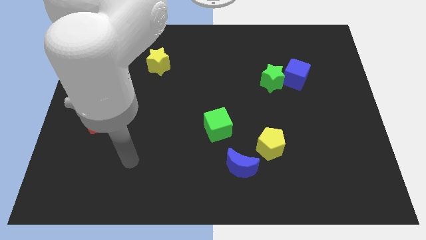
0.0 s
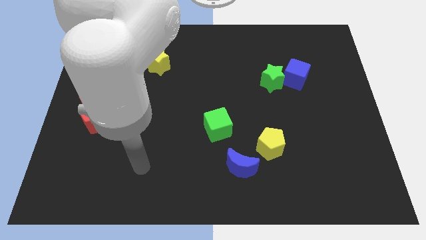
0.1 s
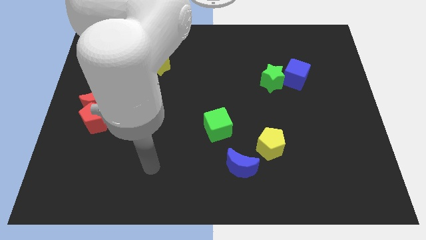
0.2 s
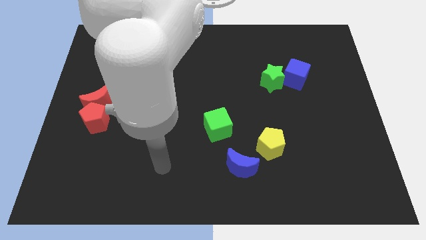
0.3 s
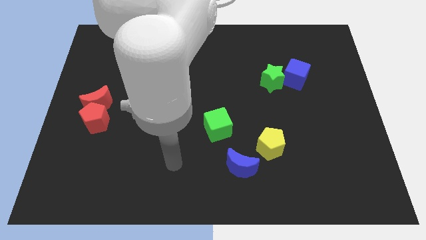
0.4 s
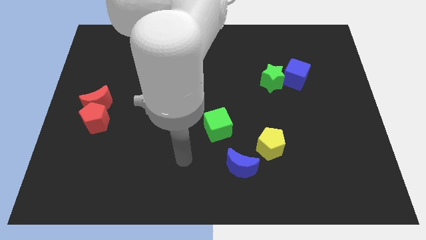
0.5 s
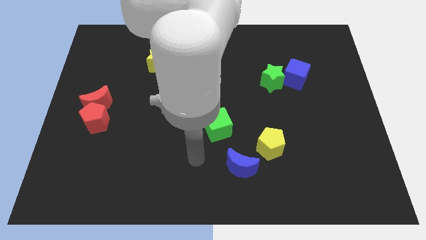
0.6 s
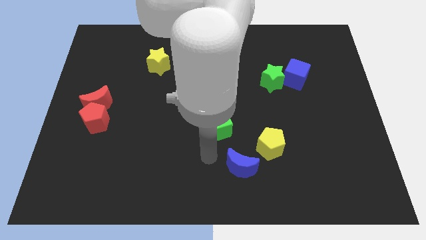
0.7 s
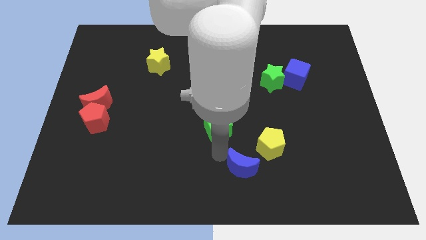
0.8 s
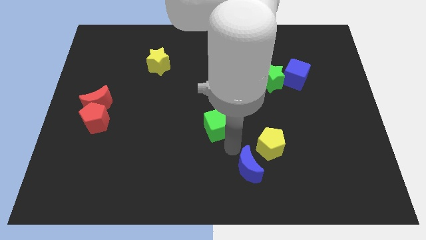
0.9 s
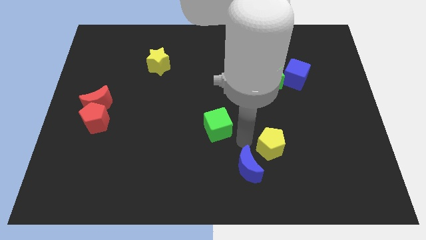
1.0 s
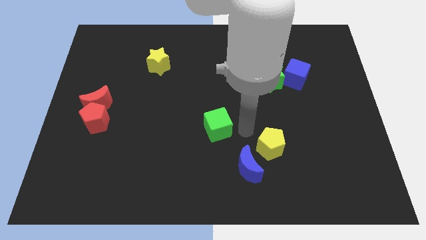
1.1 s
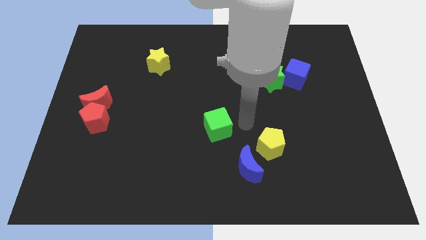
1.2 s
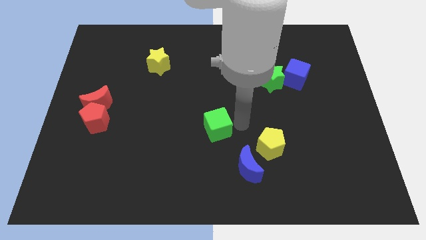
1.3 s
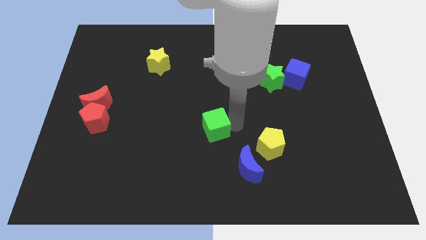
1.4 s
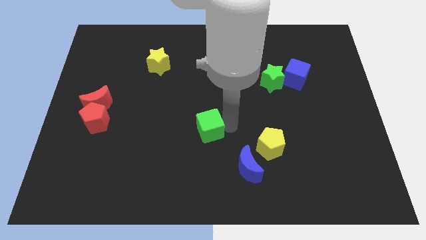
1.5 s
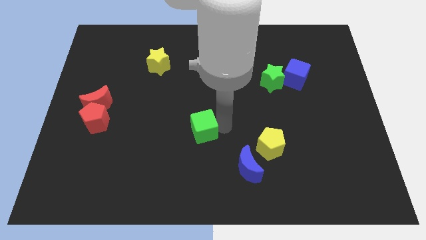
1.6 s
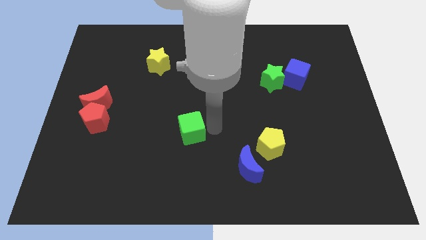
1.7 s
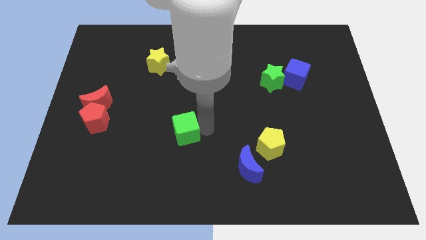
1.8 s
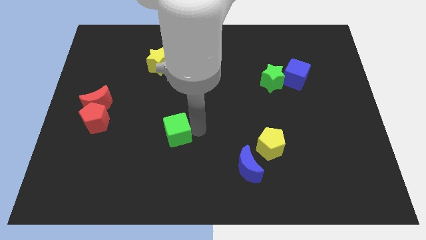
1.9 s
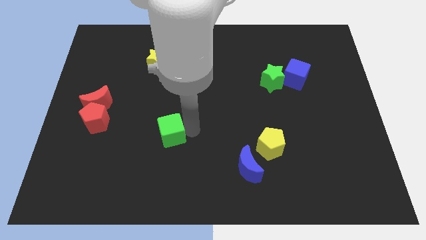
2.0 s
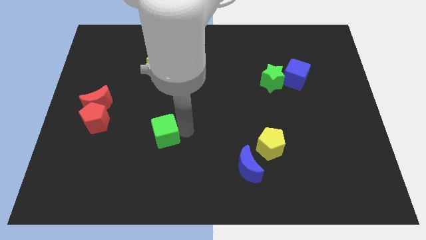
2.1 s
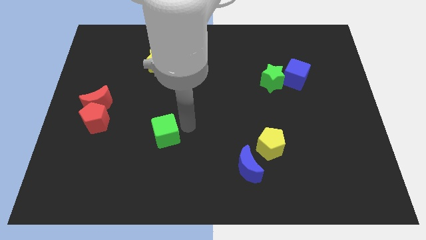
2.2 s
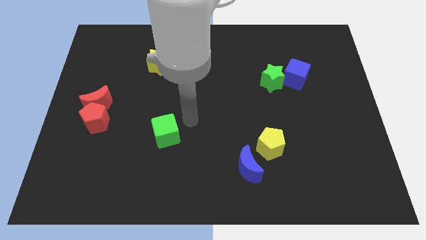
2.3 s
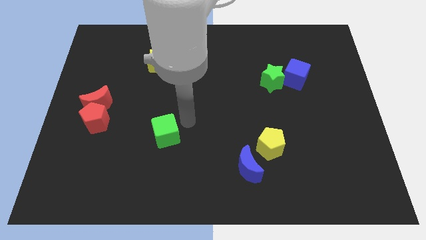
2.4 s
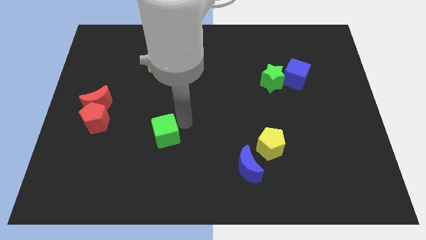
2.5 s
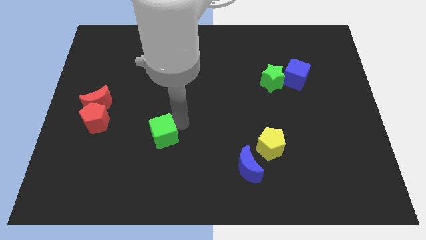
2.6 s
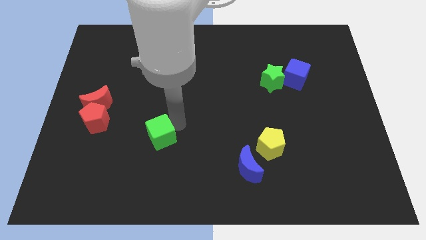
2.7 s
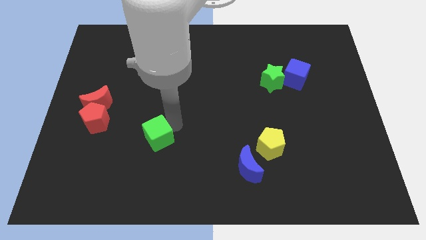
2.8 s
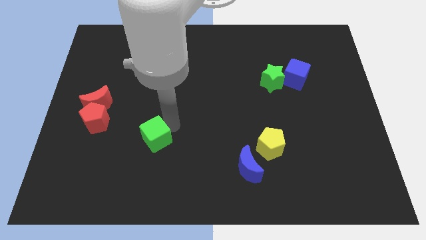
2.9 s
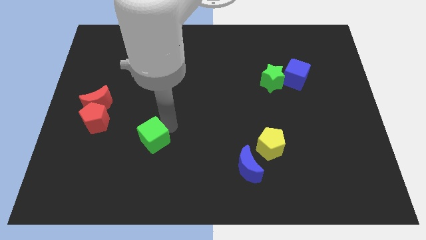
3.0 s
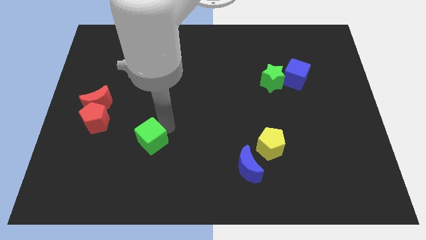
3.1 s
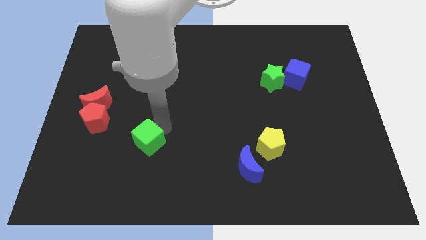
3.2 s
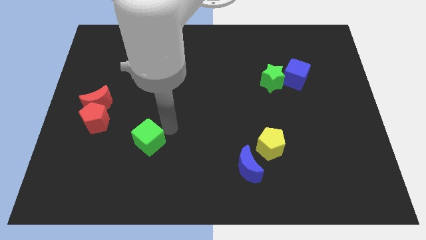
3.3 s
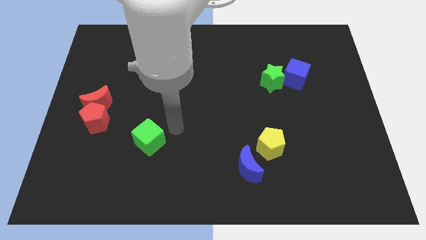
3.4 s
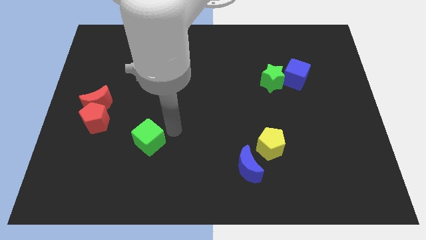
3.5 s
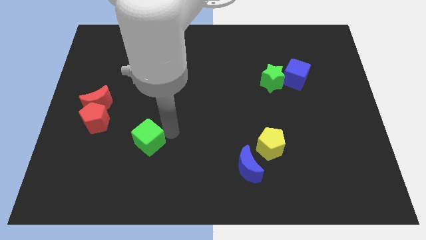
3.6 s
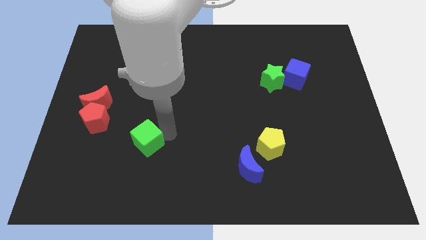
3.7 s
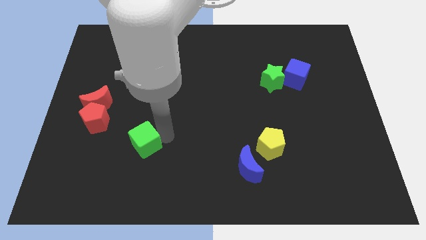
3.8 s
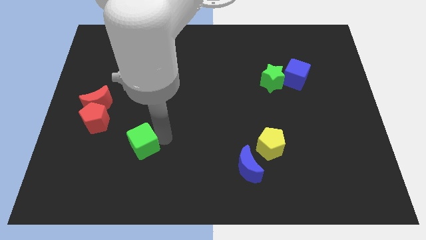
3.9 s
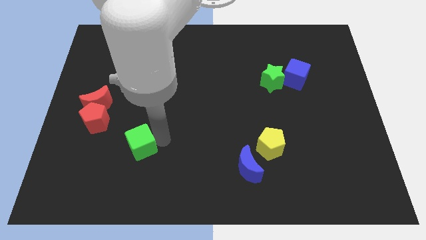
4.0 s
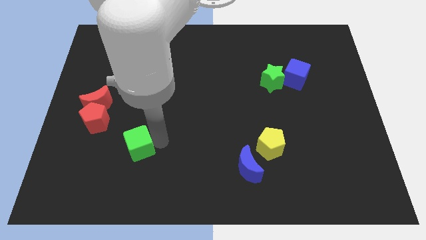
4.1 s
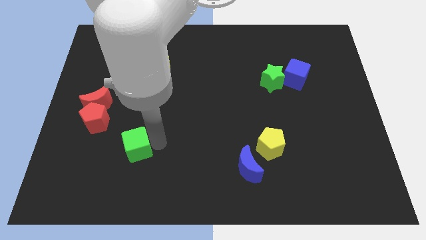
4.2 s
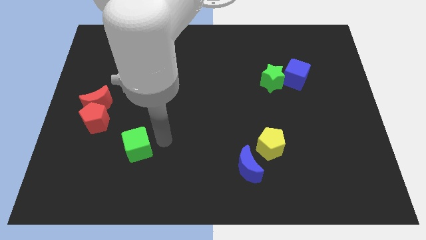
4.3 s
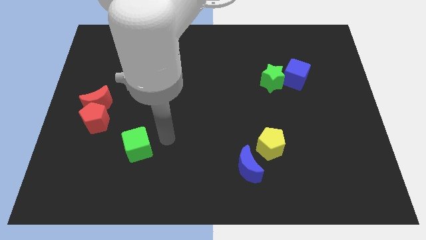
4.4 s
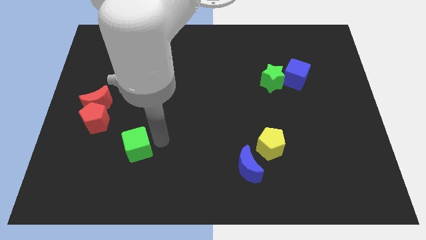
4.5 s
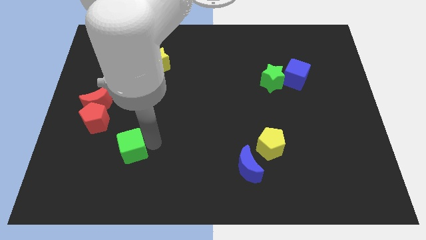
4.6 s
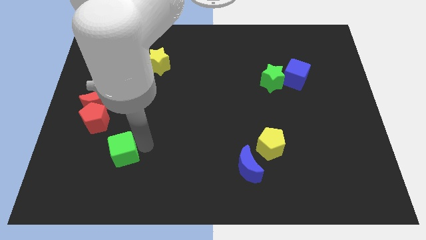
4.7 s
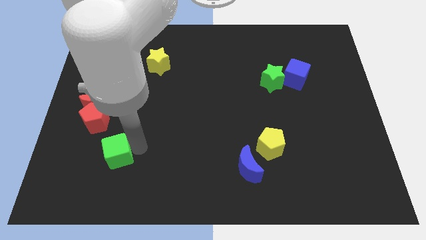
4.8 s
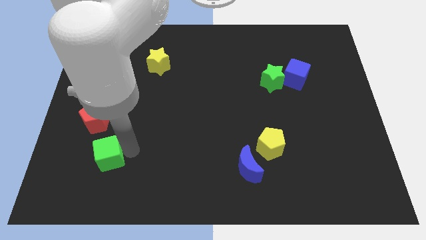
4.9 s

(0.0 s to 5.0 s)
push the green cube to the bottom of the red pentagon

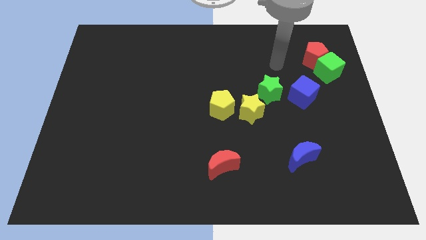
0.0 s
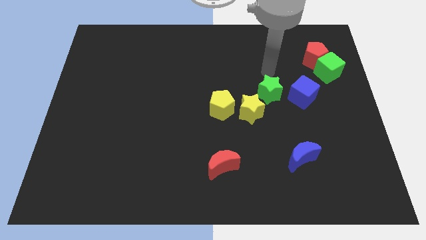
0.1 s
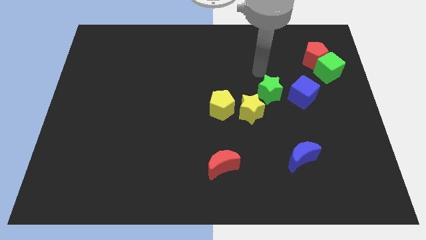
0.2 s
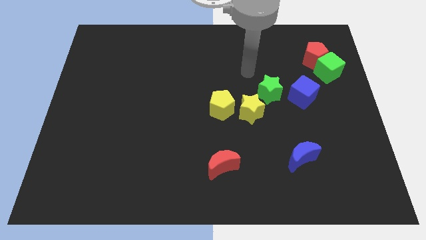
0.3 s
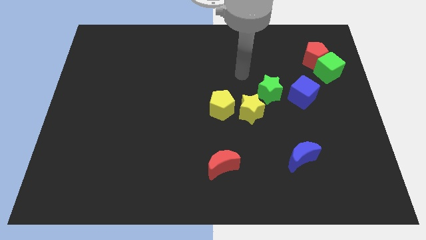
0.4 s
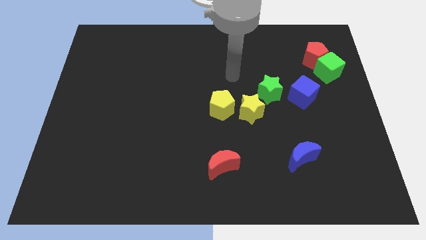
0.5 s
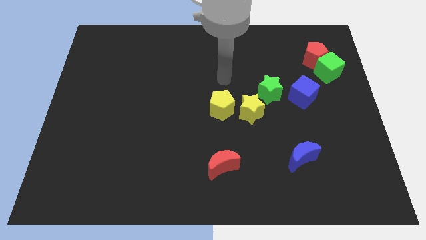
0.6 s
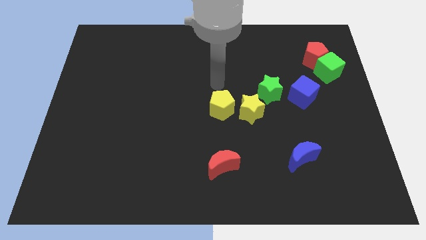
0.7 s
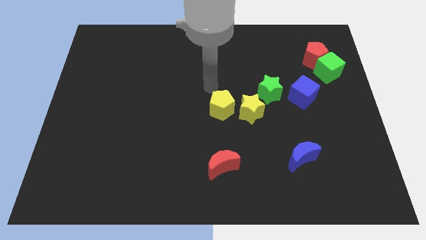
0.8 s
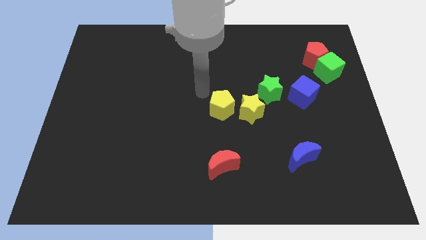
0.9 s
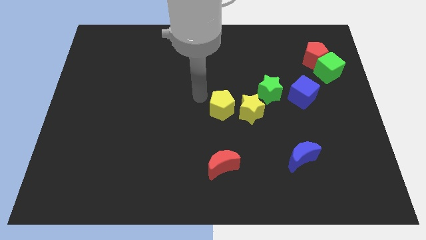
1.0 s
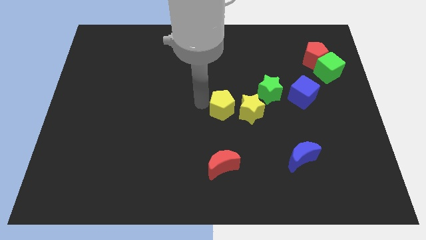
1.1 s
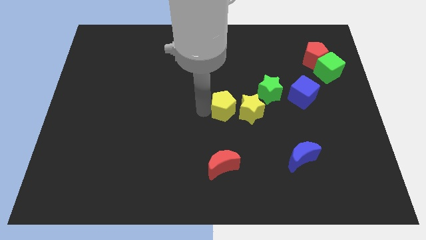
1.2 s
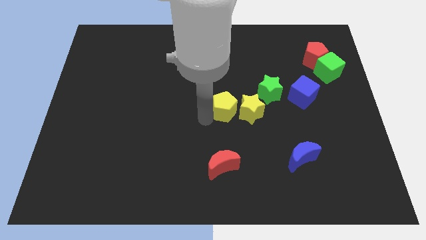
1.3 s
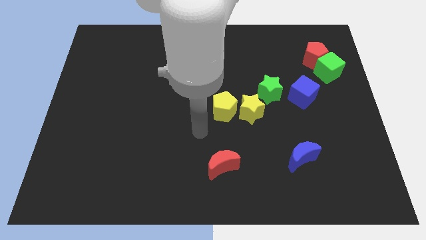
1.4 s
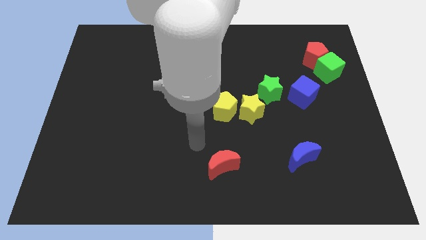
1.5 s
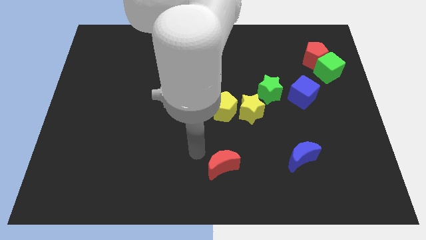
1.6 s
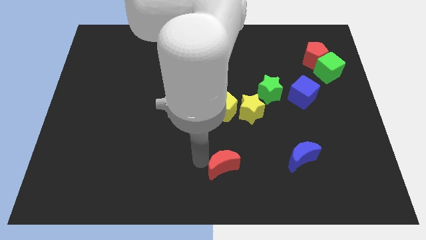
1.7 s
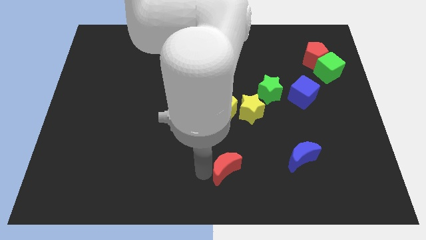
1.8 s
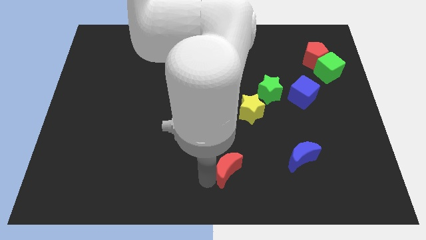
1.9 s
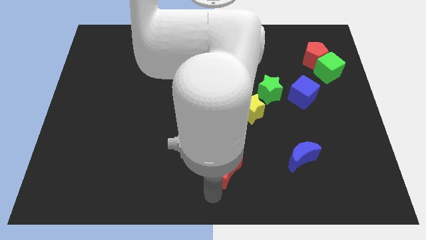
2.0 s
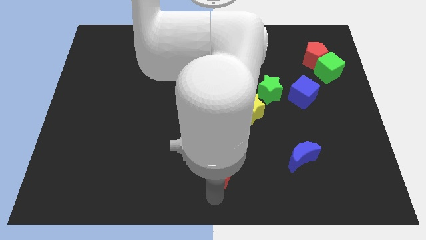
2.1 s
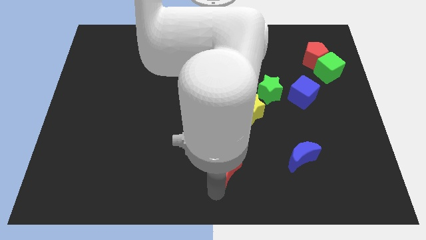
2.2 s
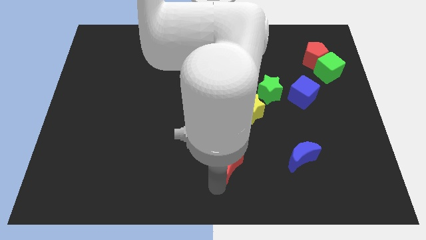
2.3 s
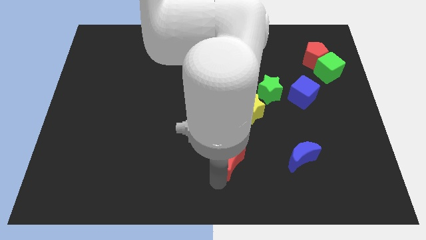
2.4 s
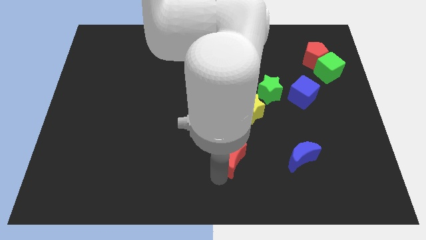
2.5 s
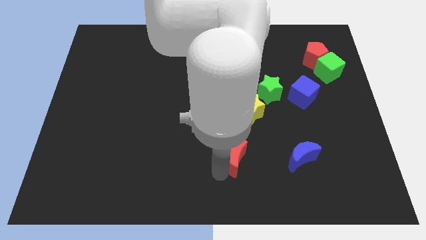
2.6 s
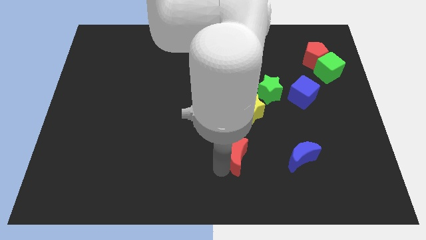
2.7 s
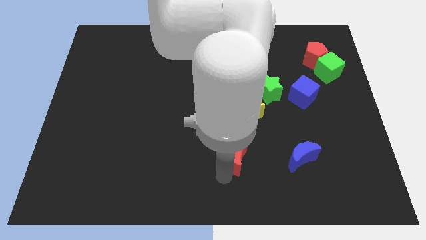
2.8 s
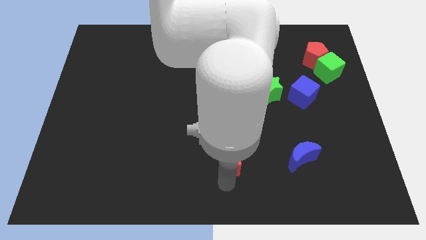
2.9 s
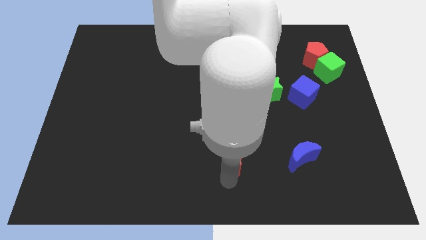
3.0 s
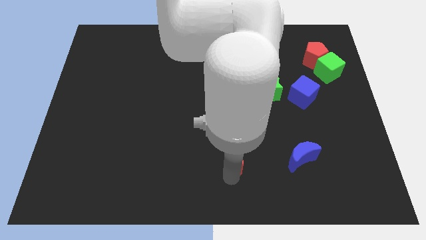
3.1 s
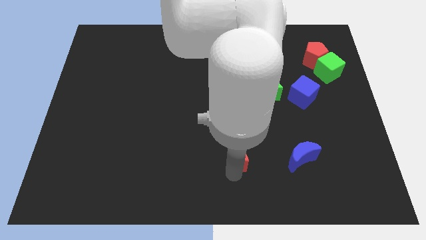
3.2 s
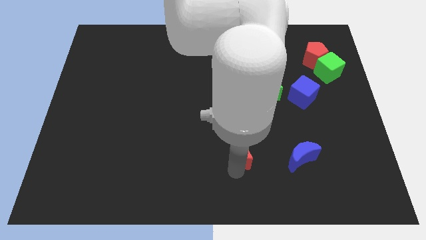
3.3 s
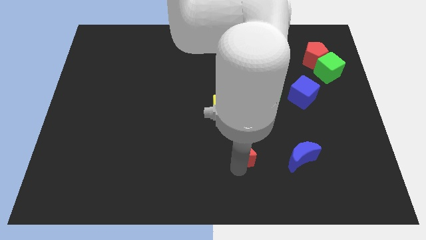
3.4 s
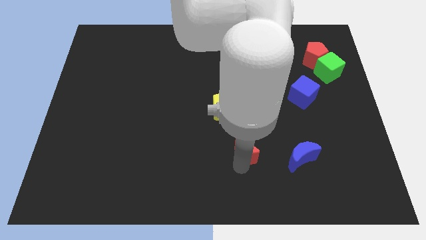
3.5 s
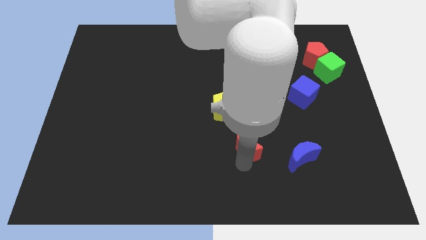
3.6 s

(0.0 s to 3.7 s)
slide the red moon to the bottom right of the yellow pentagon
